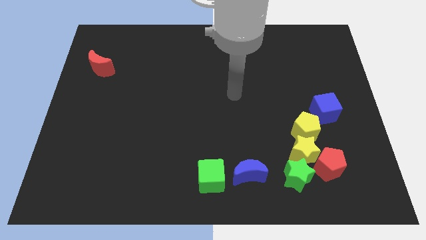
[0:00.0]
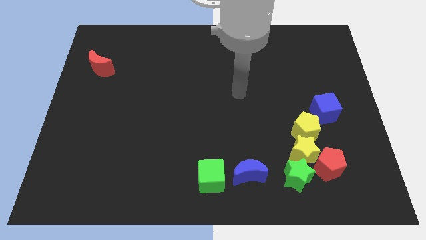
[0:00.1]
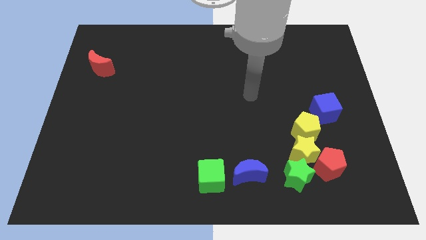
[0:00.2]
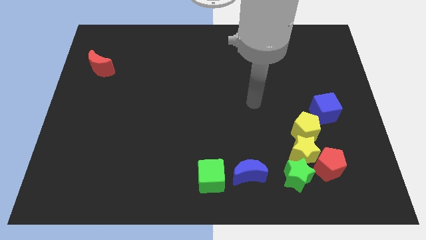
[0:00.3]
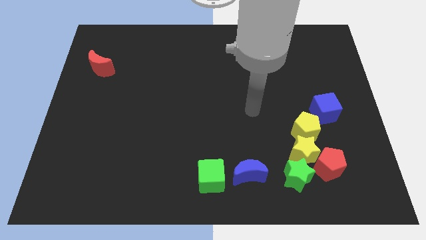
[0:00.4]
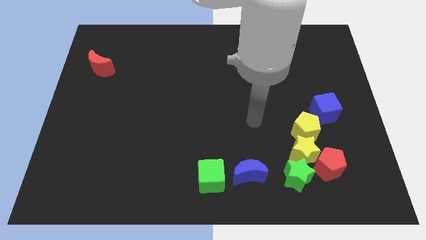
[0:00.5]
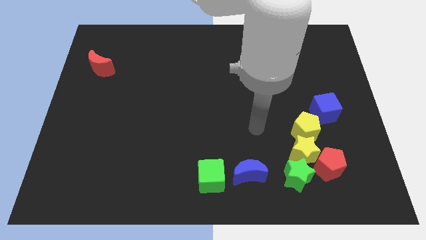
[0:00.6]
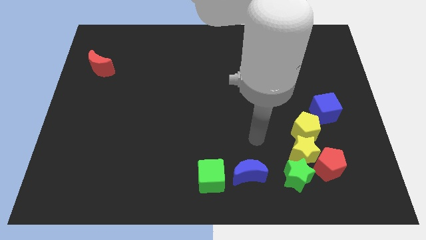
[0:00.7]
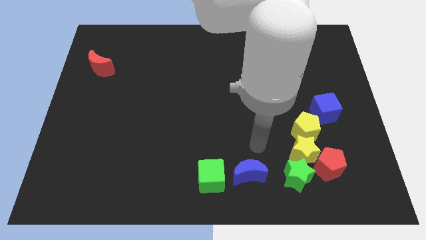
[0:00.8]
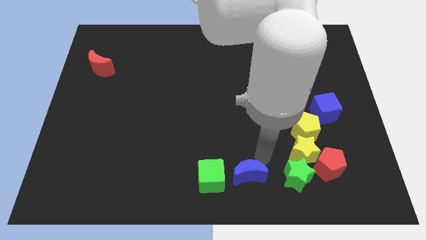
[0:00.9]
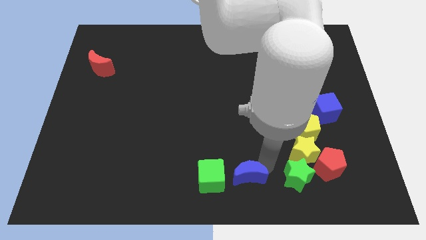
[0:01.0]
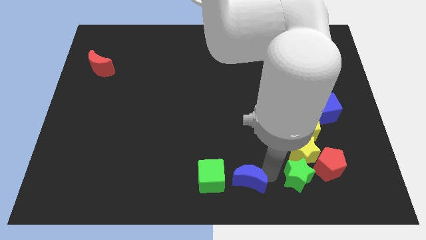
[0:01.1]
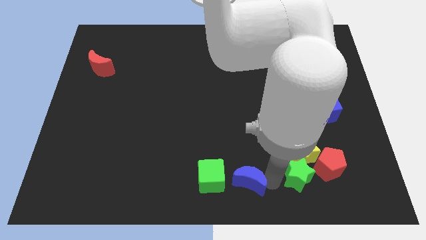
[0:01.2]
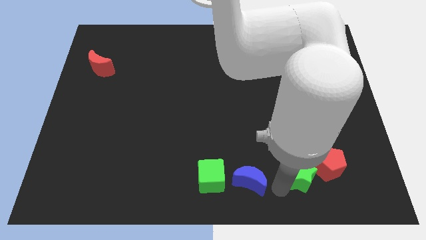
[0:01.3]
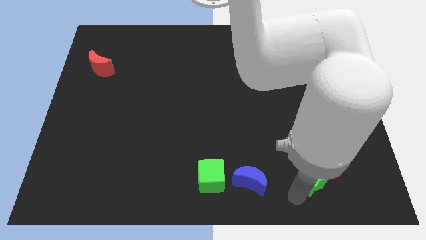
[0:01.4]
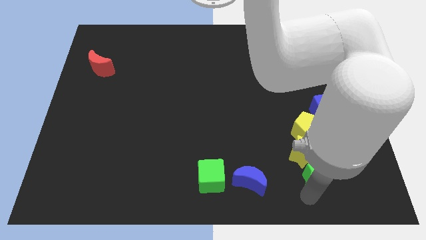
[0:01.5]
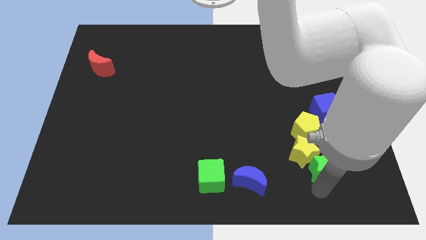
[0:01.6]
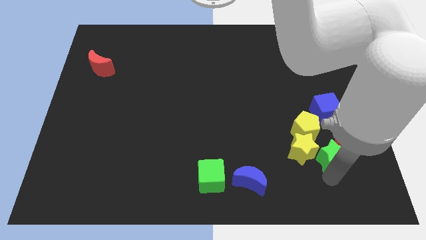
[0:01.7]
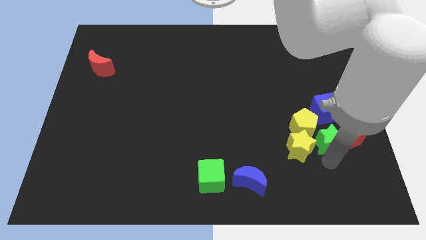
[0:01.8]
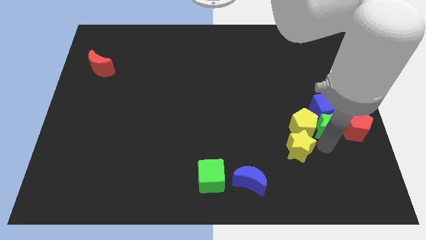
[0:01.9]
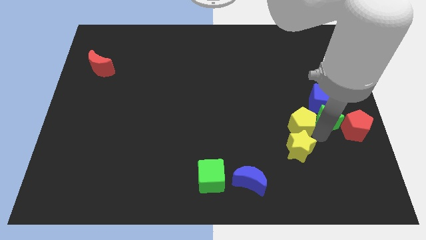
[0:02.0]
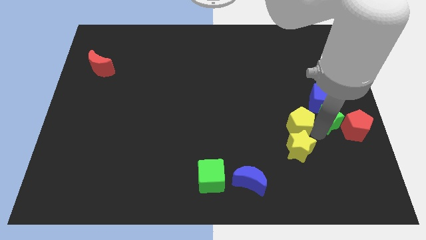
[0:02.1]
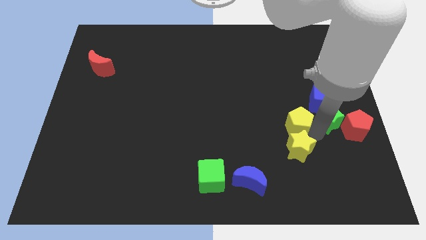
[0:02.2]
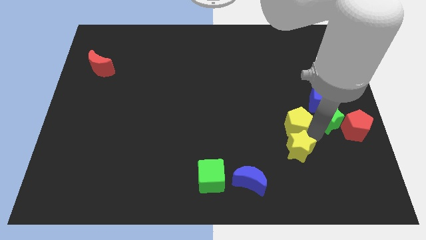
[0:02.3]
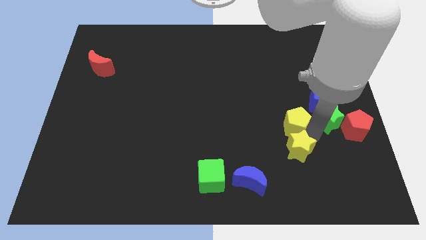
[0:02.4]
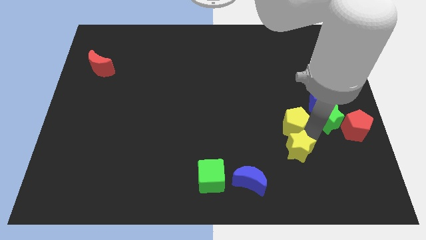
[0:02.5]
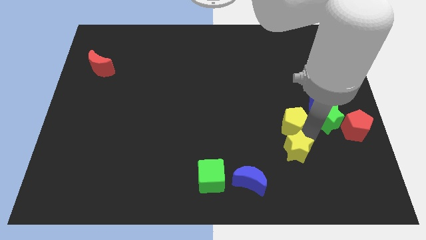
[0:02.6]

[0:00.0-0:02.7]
pull the yellow star apart from the clump

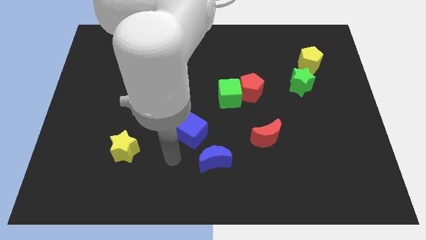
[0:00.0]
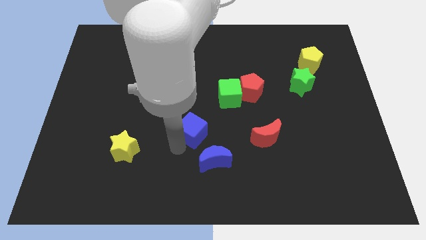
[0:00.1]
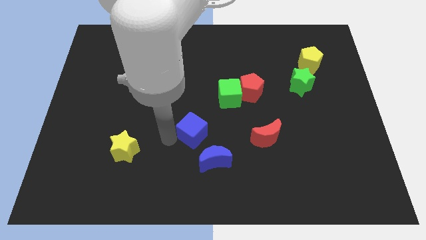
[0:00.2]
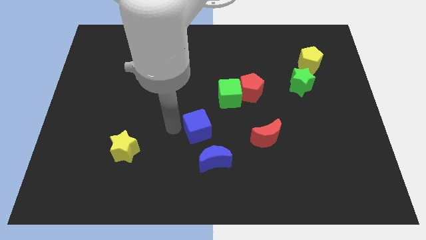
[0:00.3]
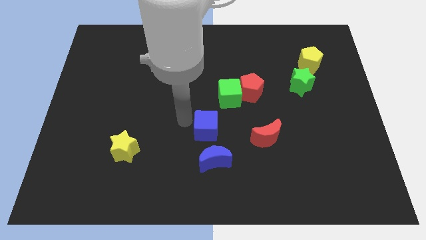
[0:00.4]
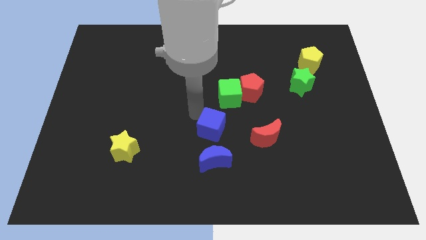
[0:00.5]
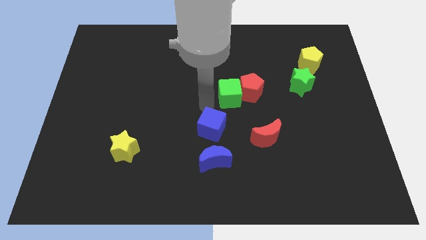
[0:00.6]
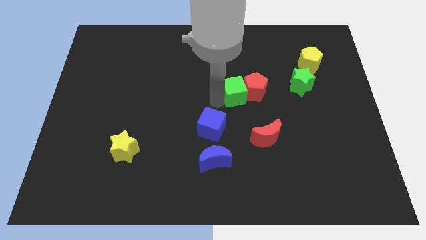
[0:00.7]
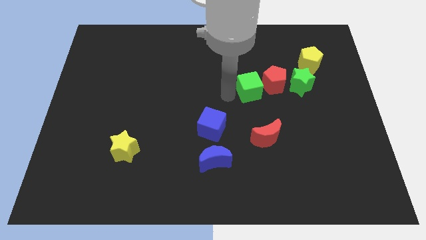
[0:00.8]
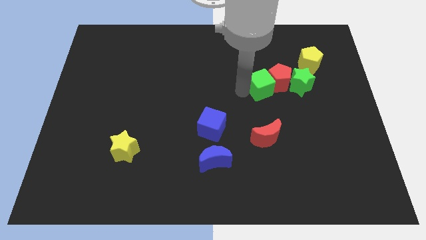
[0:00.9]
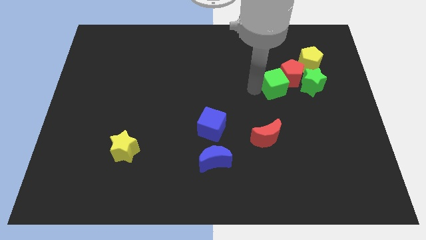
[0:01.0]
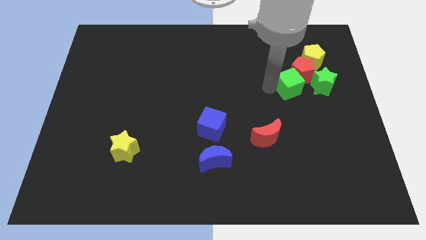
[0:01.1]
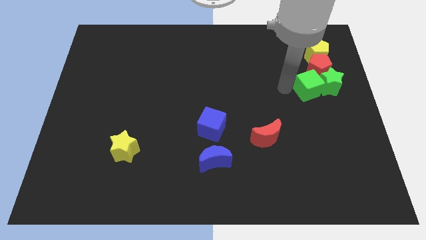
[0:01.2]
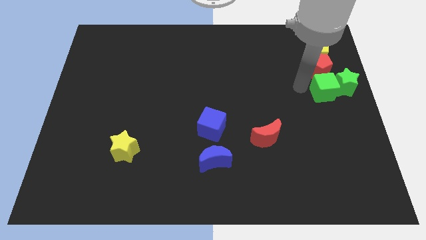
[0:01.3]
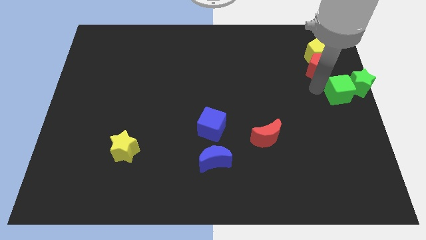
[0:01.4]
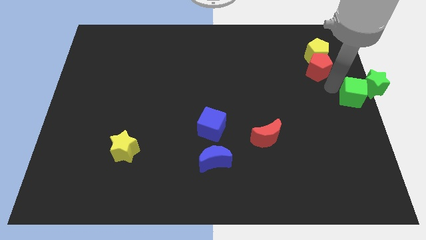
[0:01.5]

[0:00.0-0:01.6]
pull the red pentagon apart from the green cube

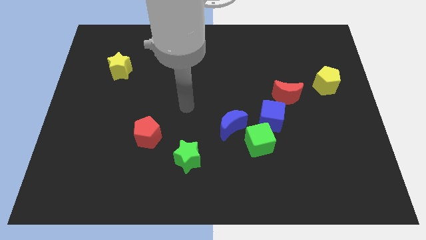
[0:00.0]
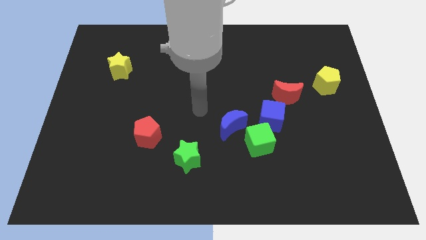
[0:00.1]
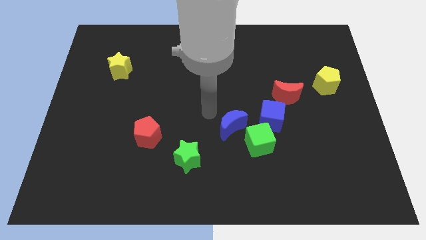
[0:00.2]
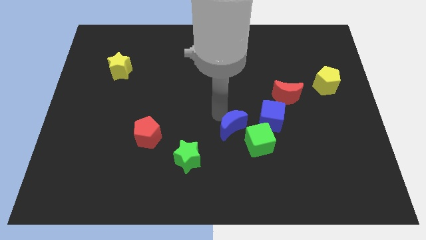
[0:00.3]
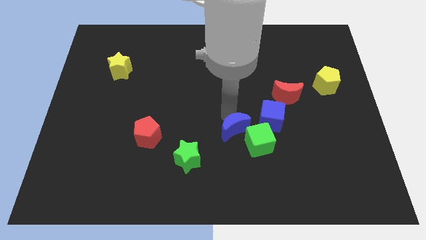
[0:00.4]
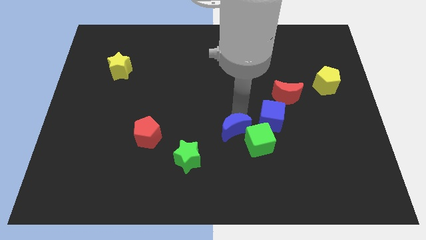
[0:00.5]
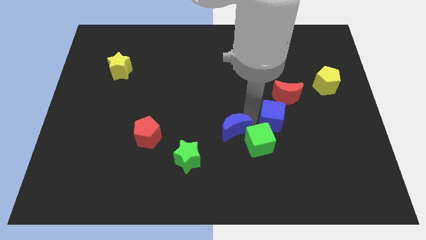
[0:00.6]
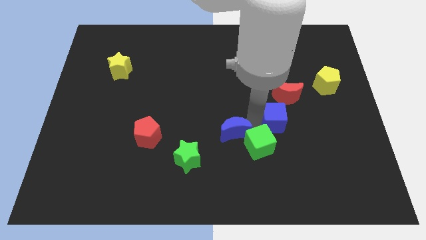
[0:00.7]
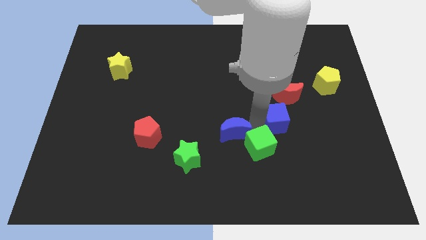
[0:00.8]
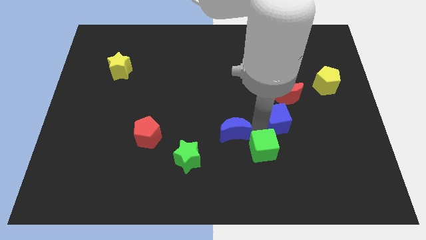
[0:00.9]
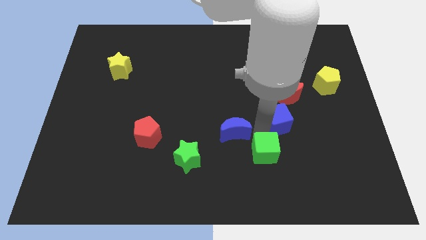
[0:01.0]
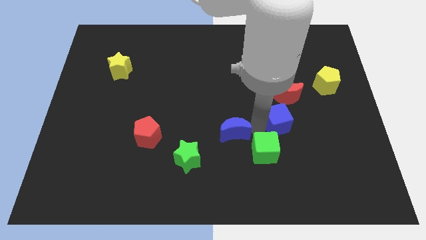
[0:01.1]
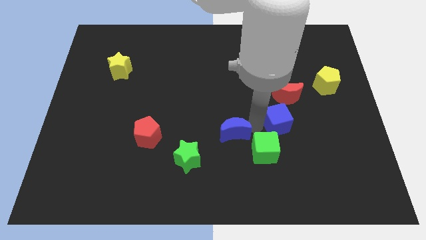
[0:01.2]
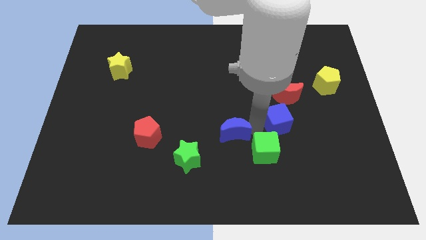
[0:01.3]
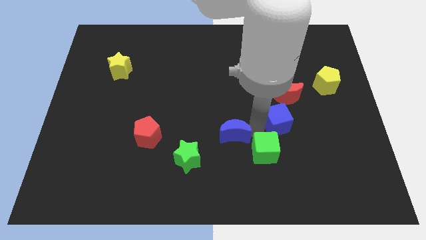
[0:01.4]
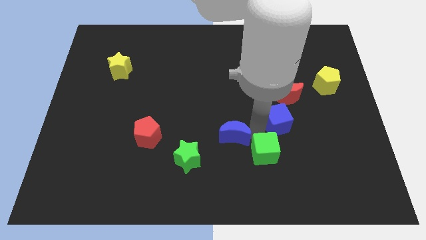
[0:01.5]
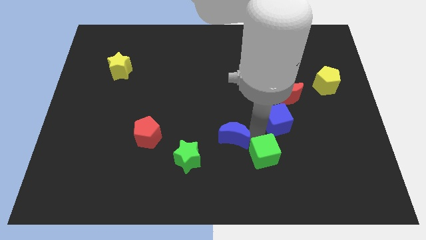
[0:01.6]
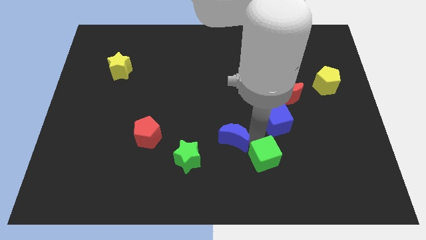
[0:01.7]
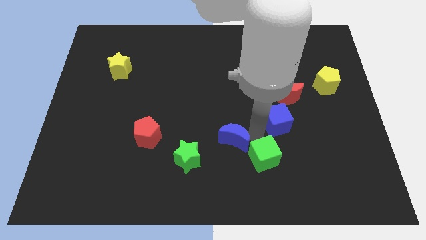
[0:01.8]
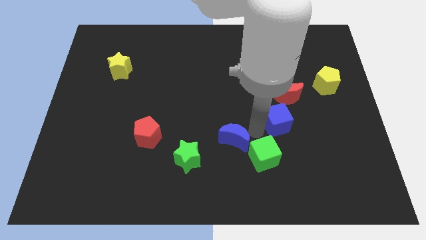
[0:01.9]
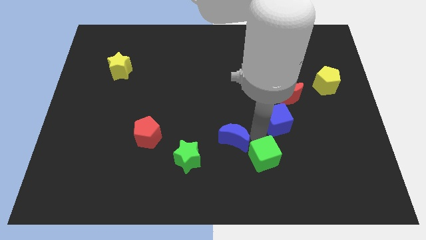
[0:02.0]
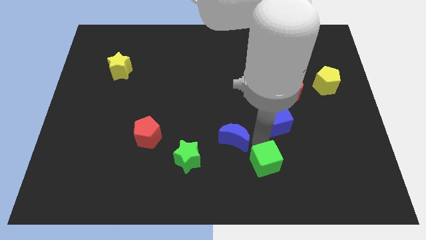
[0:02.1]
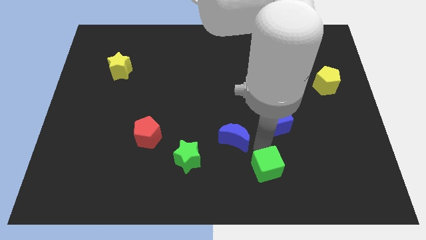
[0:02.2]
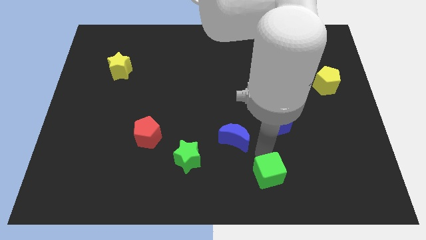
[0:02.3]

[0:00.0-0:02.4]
move the green cube away from the blue cube and blue moon

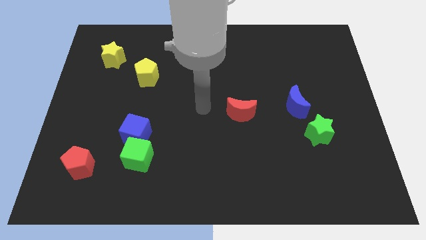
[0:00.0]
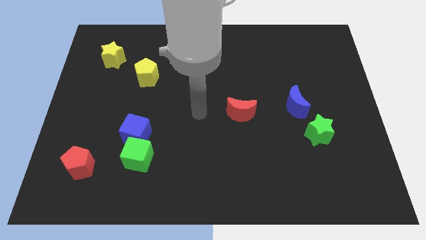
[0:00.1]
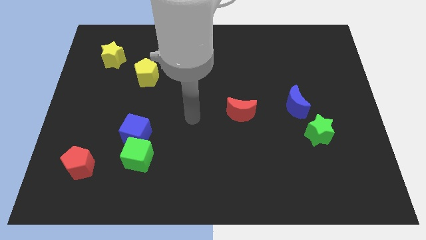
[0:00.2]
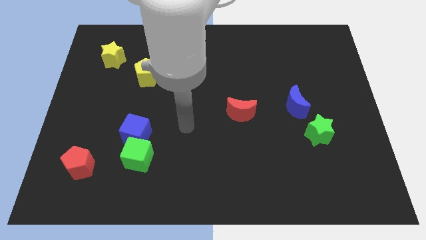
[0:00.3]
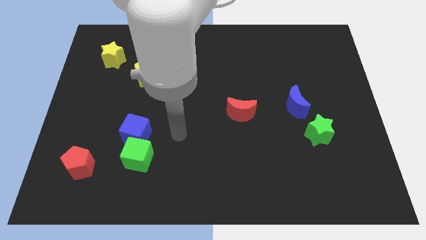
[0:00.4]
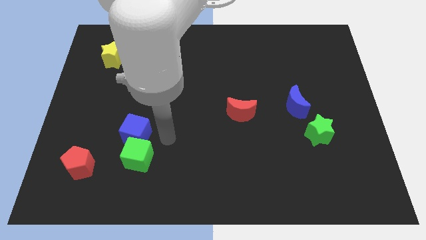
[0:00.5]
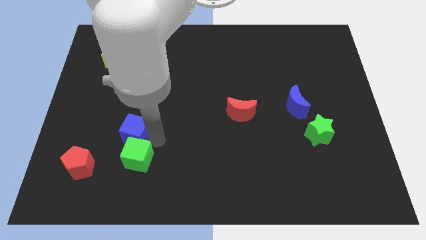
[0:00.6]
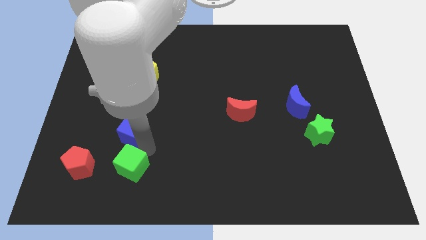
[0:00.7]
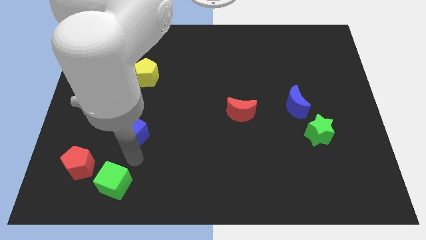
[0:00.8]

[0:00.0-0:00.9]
move the blue cube away from the green cube

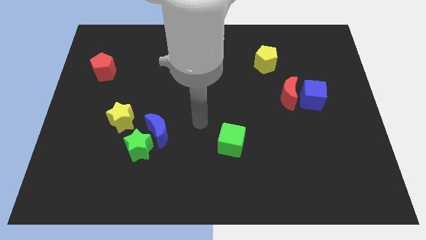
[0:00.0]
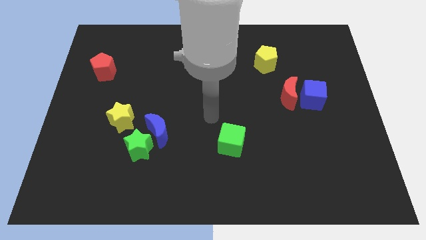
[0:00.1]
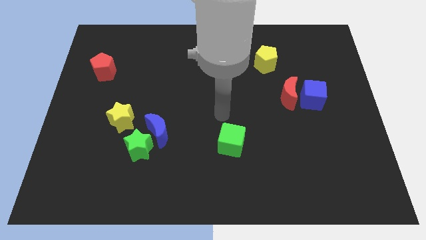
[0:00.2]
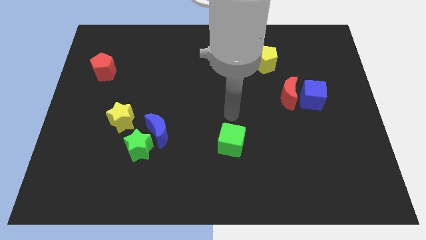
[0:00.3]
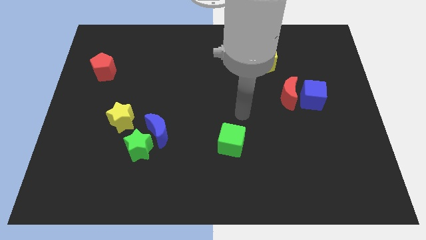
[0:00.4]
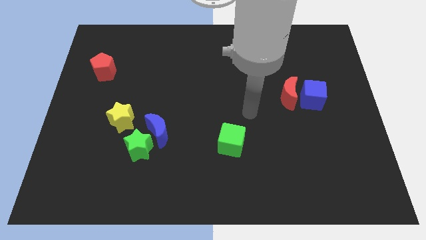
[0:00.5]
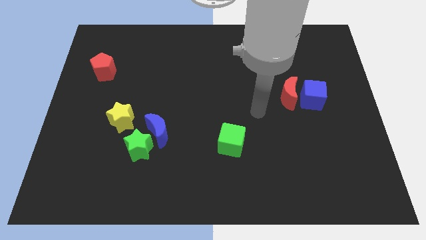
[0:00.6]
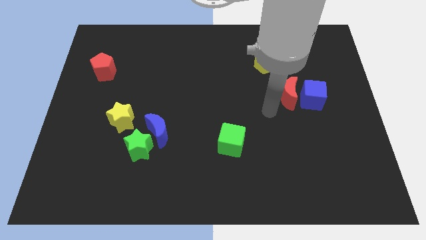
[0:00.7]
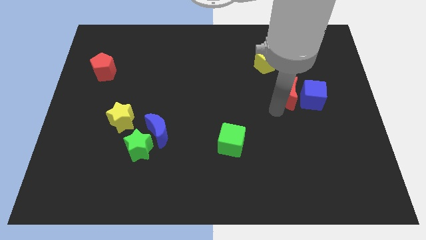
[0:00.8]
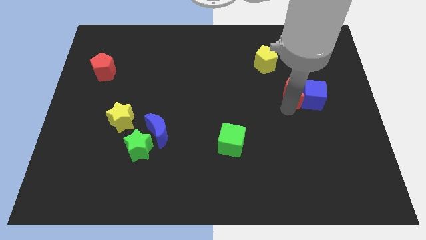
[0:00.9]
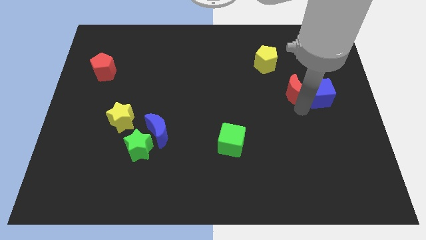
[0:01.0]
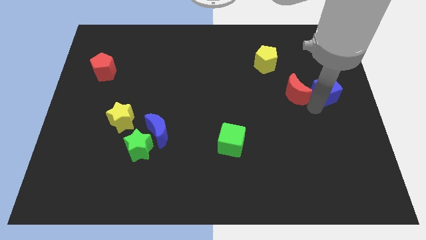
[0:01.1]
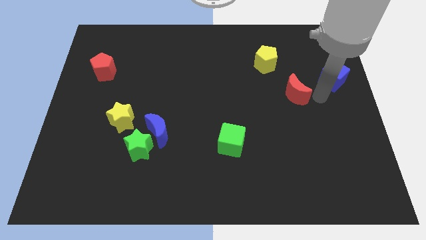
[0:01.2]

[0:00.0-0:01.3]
move the red moon away from the blue cube

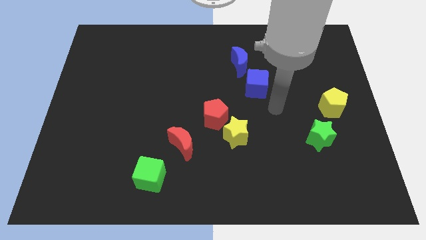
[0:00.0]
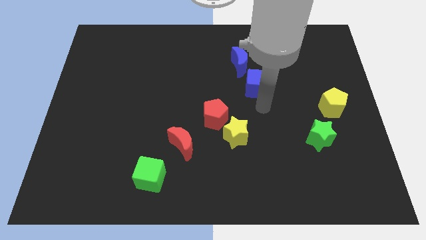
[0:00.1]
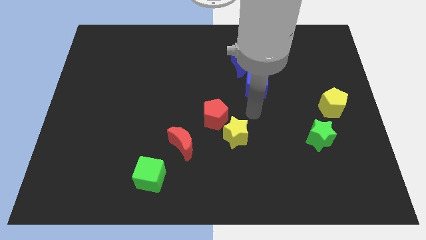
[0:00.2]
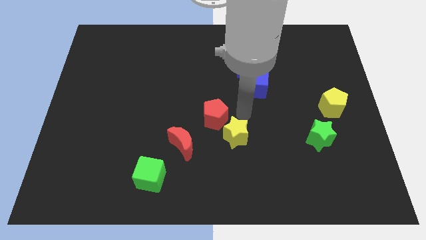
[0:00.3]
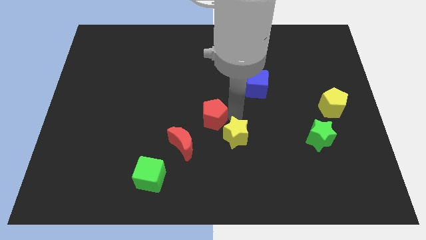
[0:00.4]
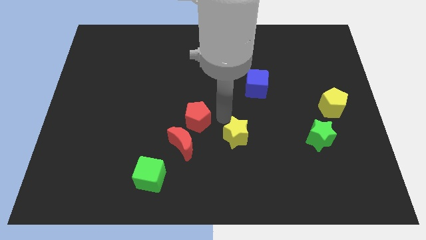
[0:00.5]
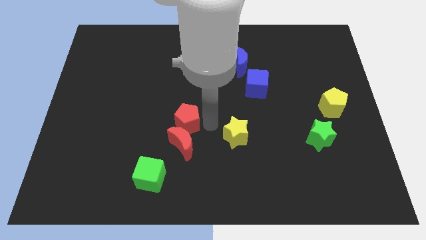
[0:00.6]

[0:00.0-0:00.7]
separate the yellow star from the red pentagon
